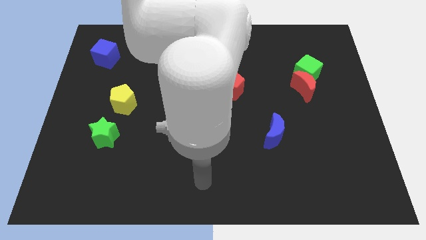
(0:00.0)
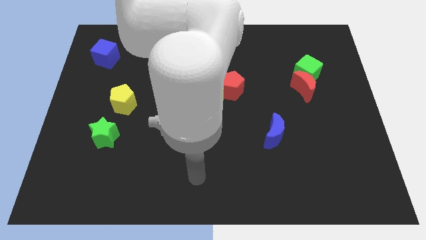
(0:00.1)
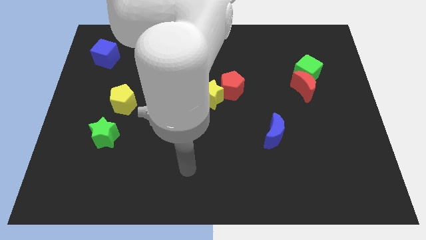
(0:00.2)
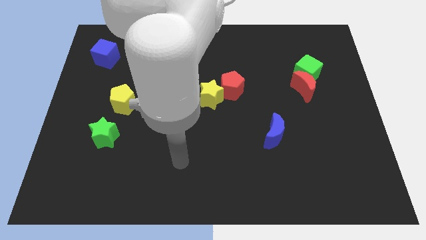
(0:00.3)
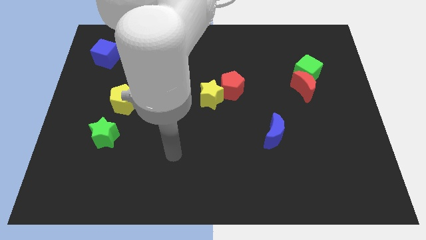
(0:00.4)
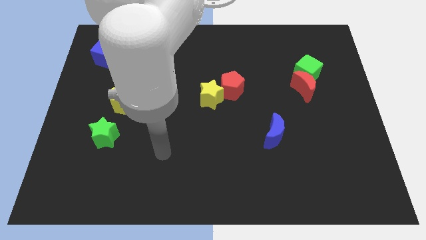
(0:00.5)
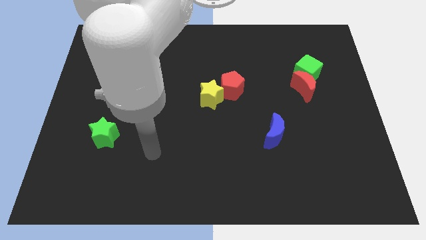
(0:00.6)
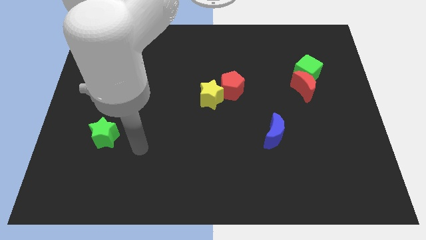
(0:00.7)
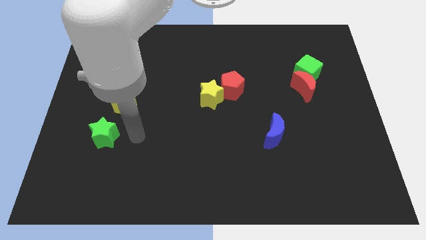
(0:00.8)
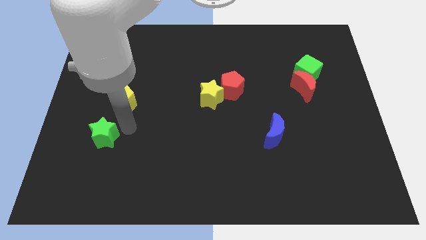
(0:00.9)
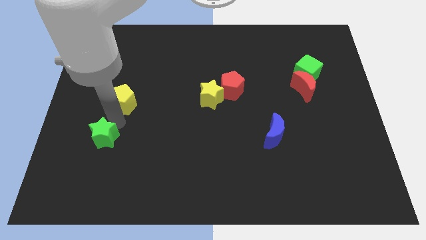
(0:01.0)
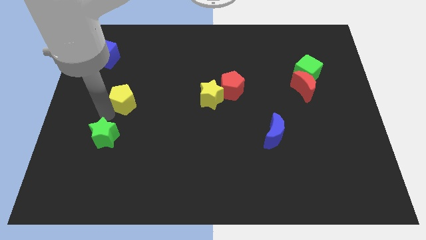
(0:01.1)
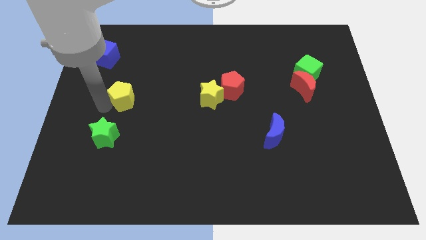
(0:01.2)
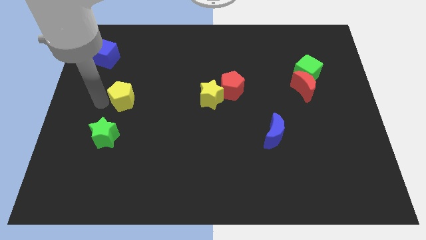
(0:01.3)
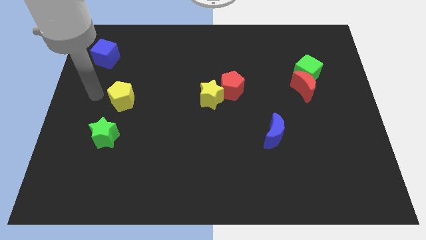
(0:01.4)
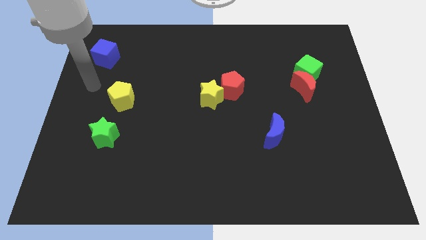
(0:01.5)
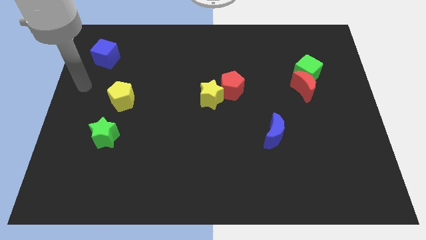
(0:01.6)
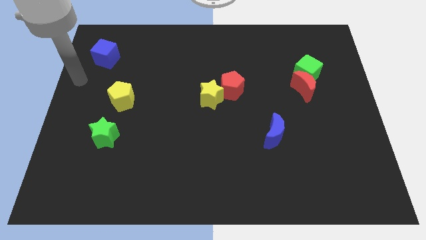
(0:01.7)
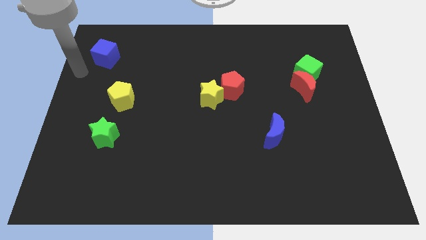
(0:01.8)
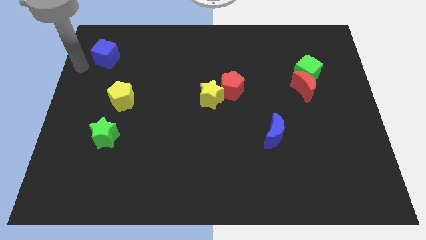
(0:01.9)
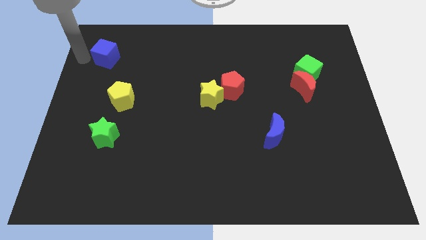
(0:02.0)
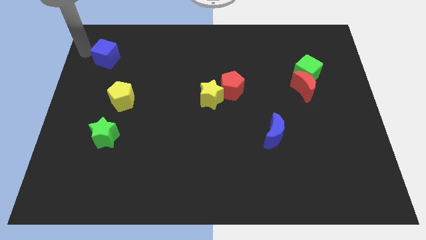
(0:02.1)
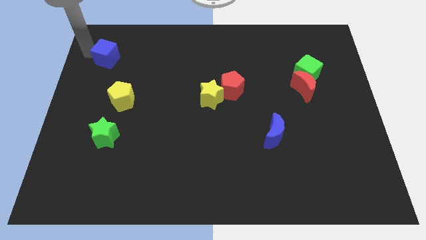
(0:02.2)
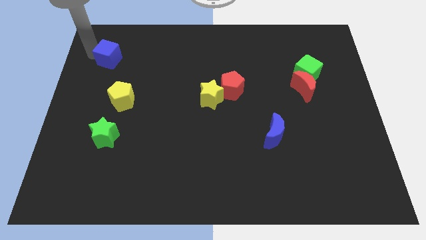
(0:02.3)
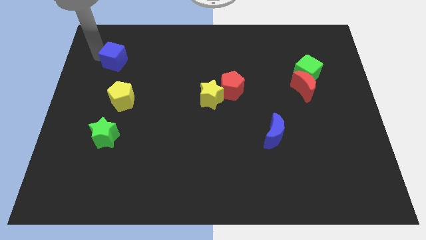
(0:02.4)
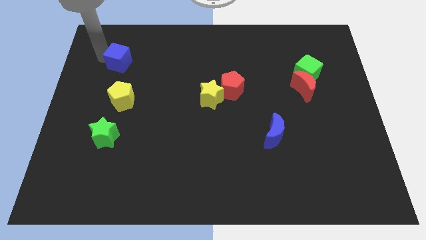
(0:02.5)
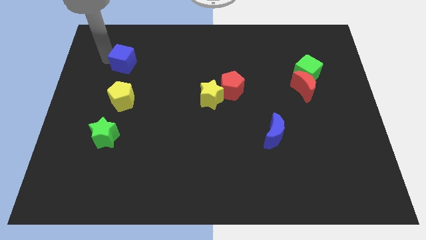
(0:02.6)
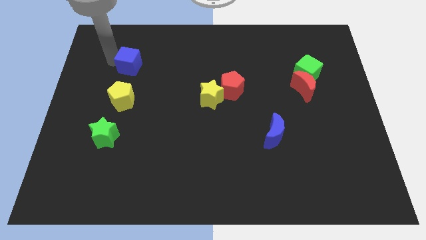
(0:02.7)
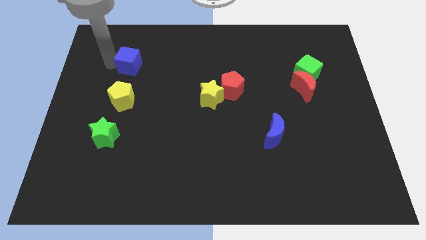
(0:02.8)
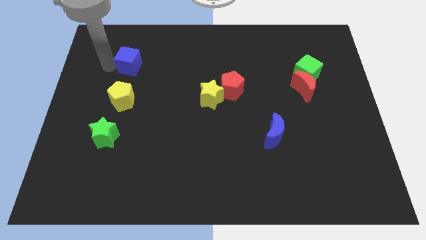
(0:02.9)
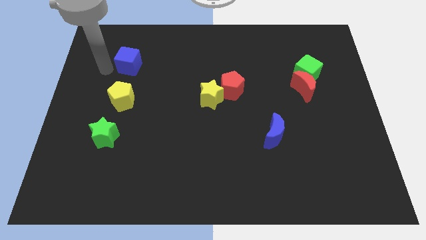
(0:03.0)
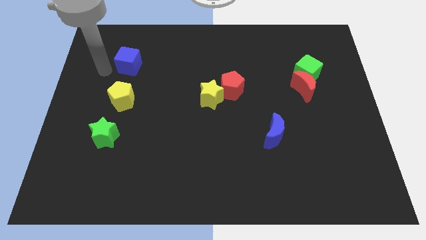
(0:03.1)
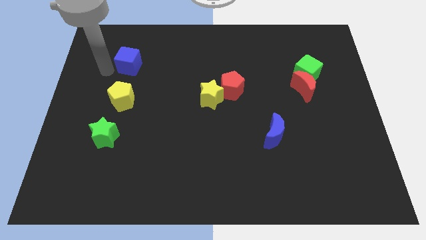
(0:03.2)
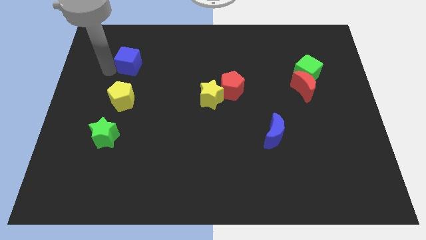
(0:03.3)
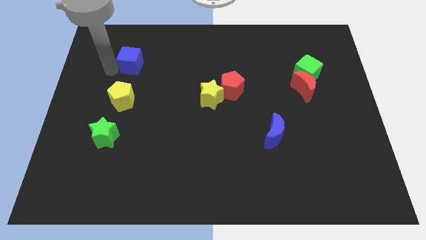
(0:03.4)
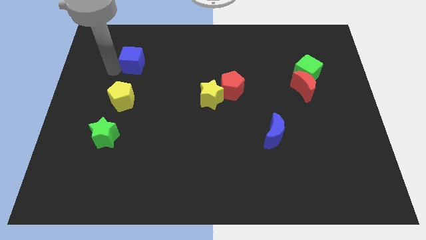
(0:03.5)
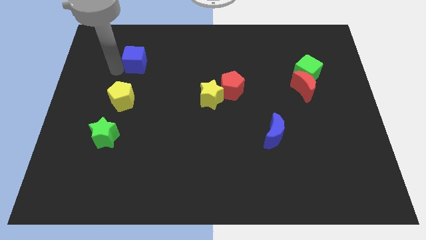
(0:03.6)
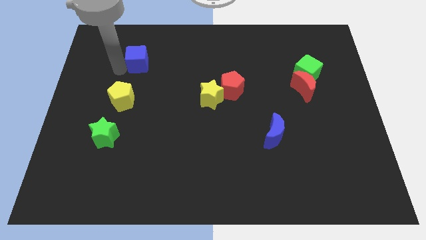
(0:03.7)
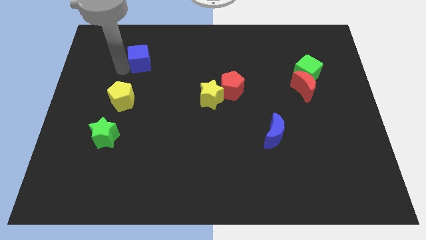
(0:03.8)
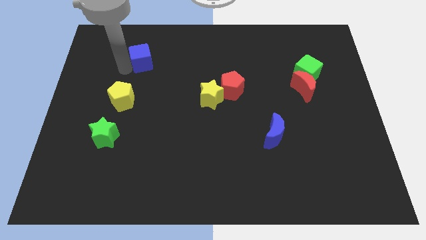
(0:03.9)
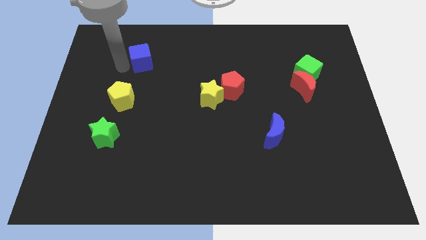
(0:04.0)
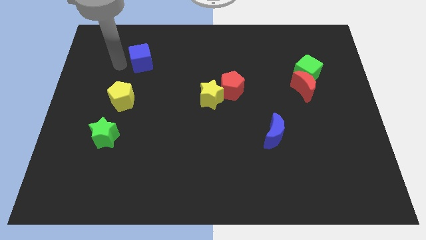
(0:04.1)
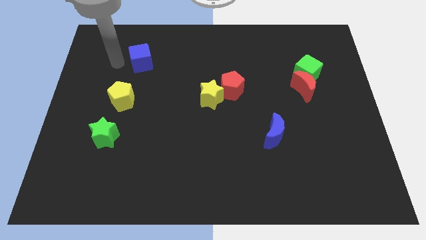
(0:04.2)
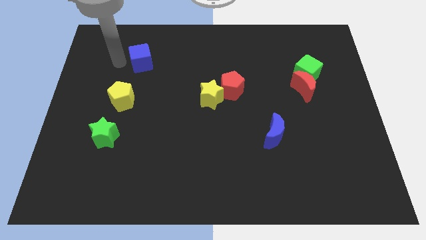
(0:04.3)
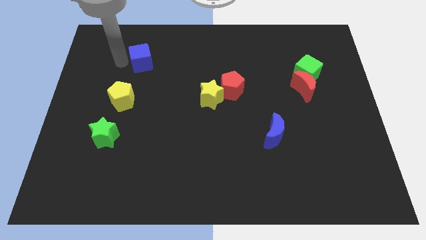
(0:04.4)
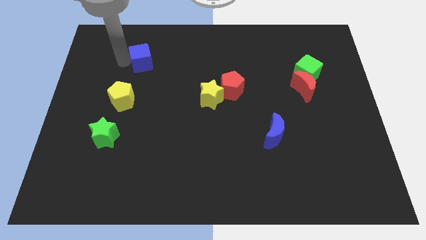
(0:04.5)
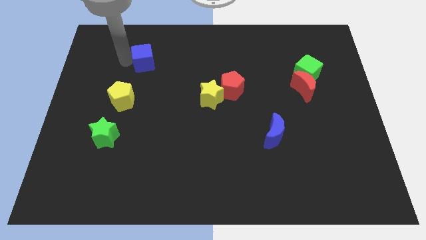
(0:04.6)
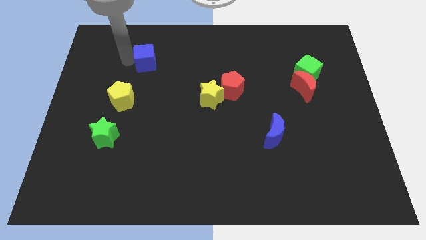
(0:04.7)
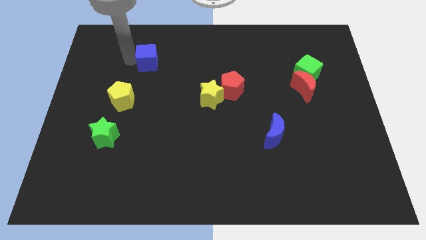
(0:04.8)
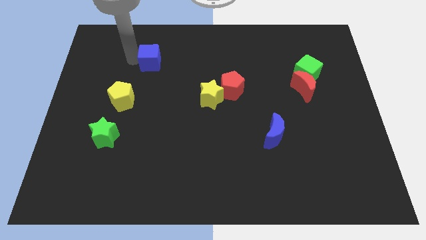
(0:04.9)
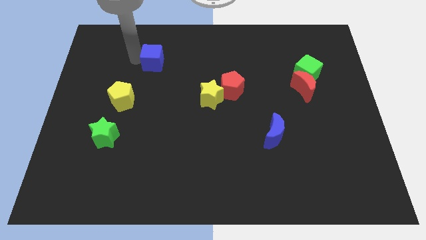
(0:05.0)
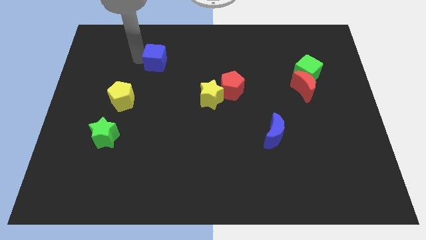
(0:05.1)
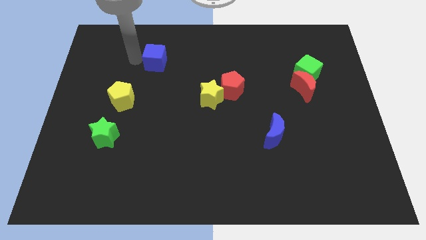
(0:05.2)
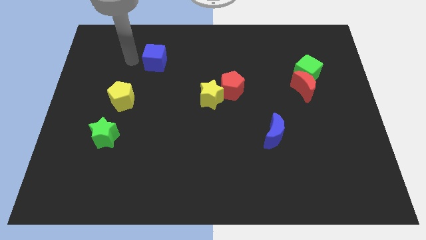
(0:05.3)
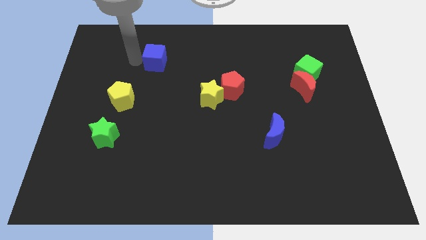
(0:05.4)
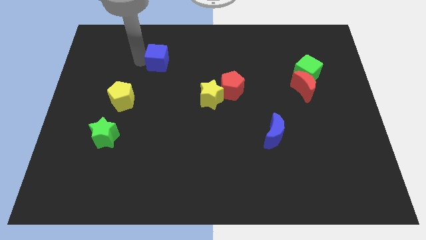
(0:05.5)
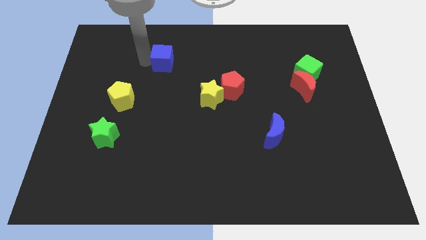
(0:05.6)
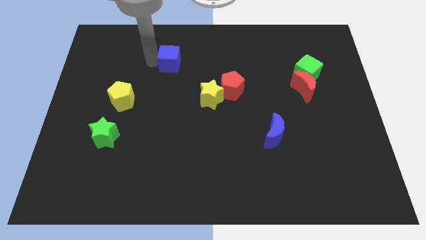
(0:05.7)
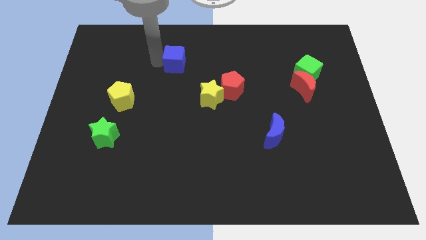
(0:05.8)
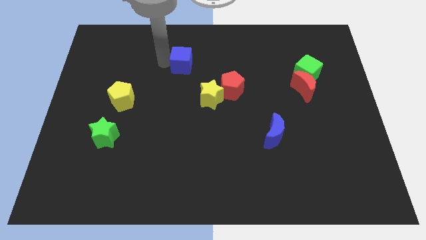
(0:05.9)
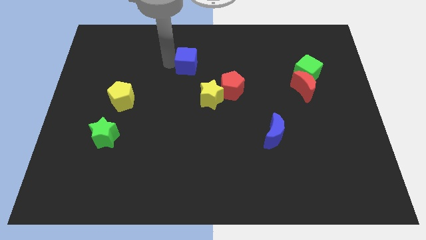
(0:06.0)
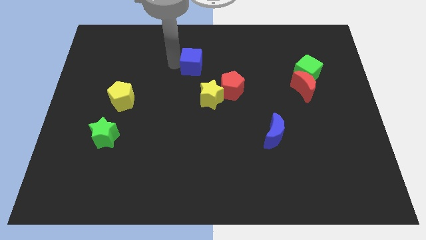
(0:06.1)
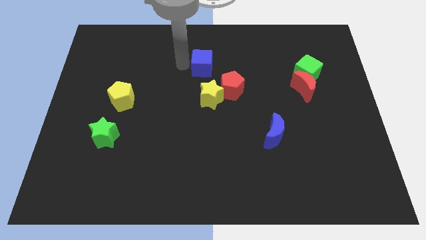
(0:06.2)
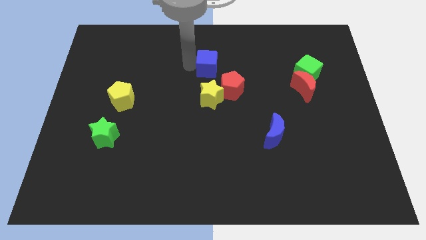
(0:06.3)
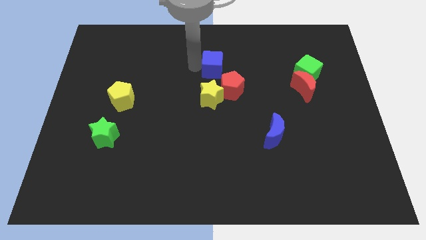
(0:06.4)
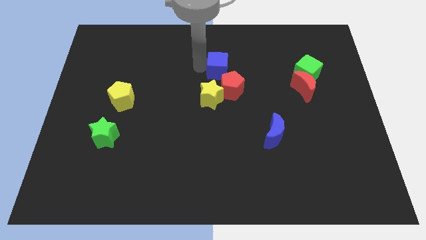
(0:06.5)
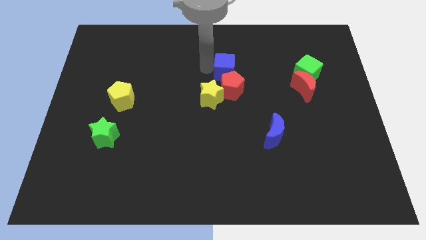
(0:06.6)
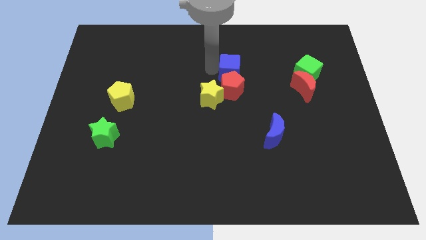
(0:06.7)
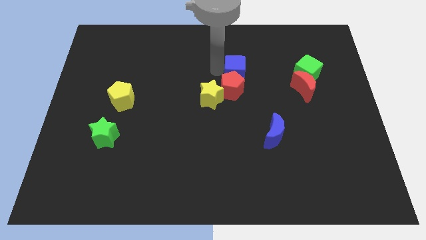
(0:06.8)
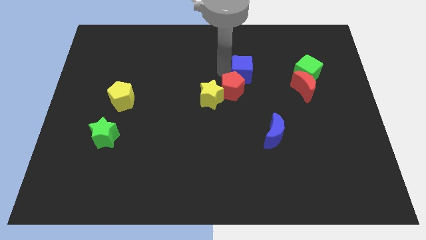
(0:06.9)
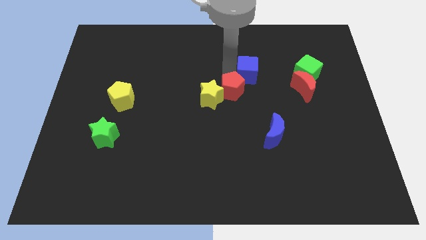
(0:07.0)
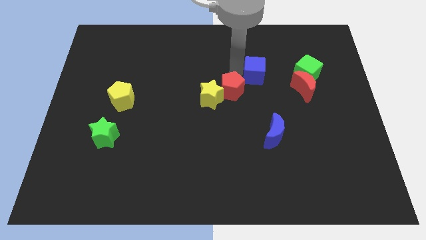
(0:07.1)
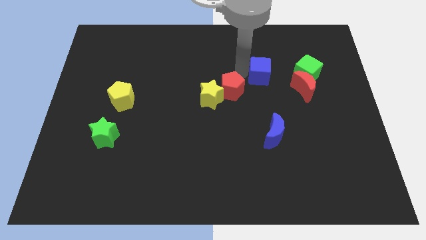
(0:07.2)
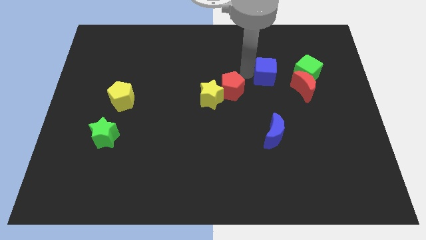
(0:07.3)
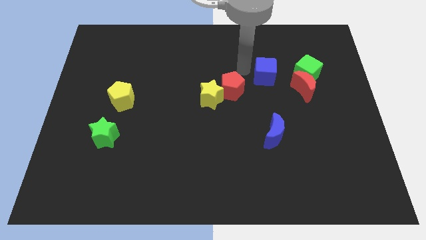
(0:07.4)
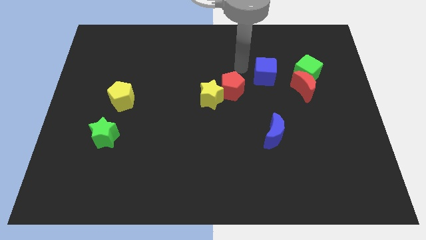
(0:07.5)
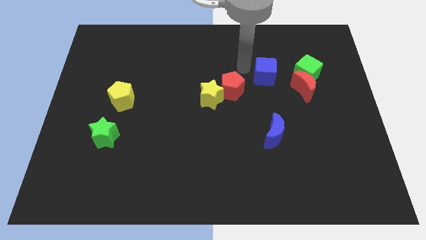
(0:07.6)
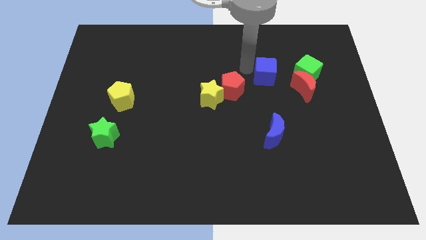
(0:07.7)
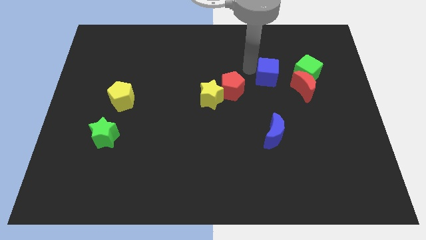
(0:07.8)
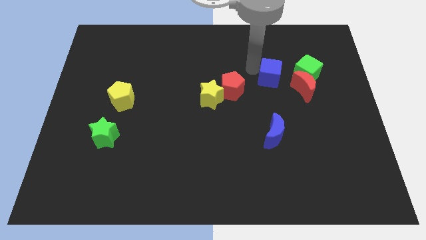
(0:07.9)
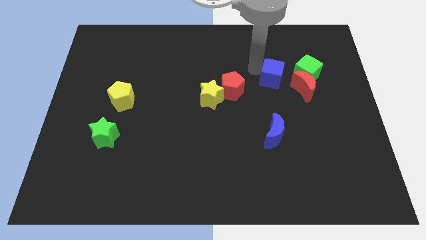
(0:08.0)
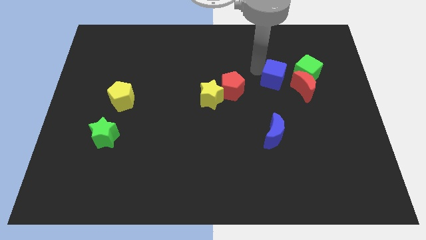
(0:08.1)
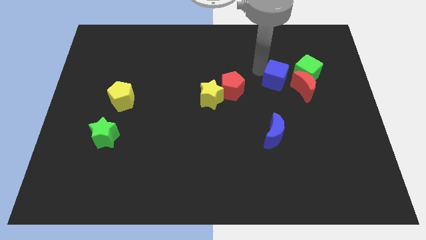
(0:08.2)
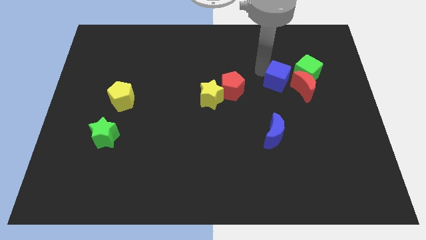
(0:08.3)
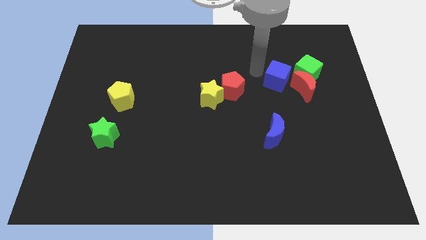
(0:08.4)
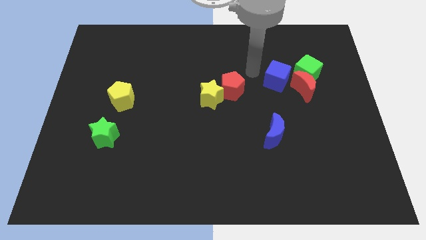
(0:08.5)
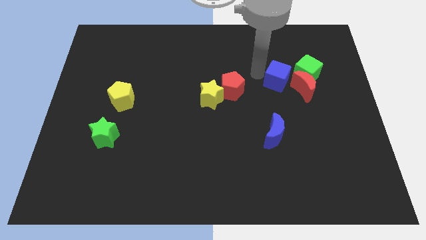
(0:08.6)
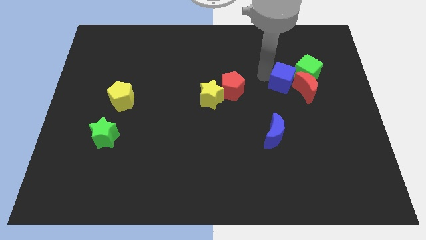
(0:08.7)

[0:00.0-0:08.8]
push the blue cube to the red moon
